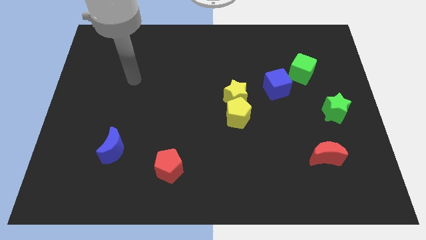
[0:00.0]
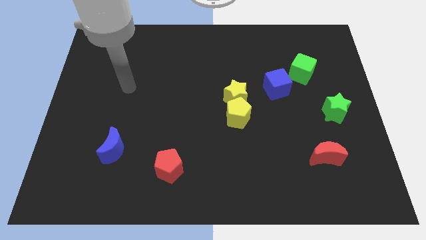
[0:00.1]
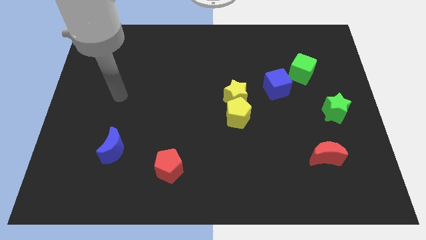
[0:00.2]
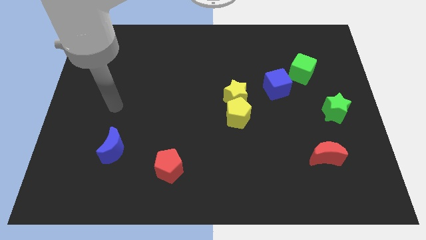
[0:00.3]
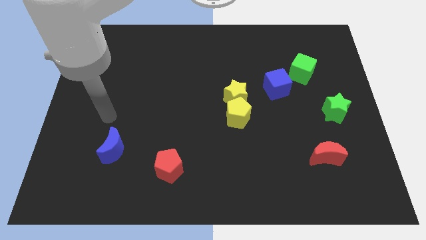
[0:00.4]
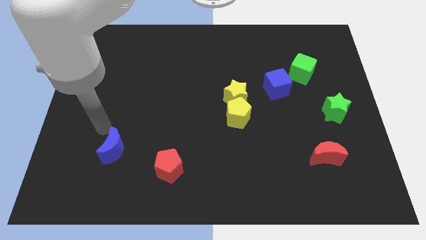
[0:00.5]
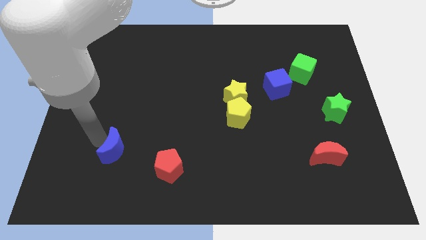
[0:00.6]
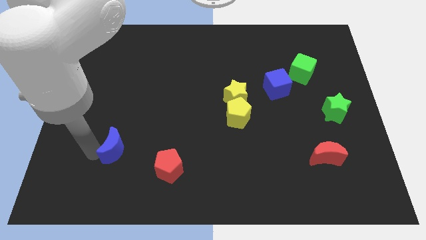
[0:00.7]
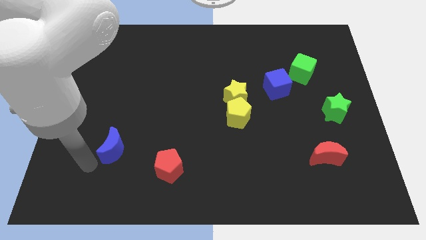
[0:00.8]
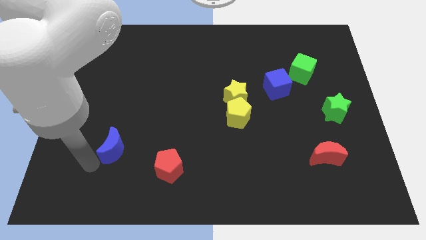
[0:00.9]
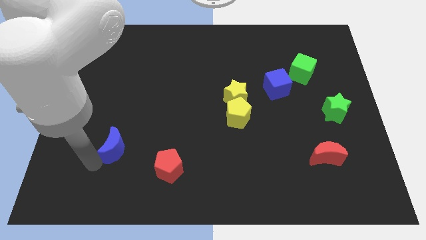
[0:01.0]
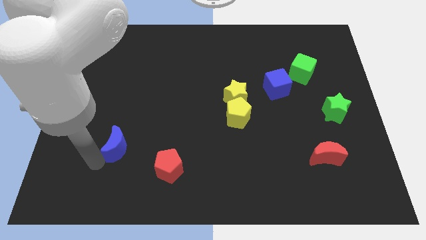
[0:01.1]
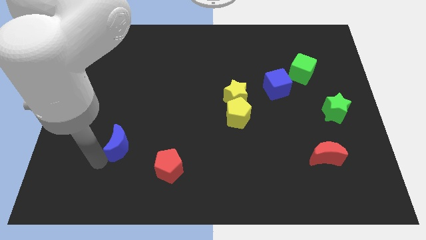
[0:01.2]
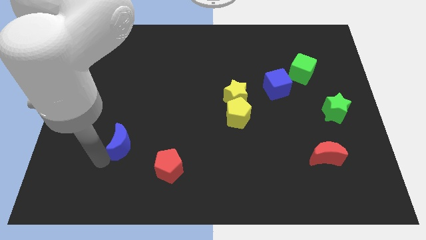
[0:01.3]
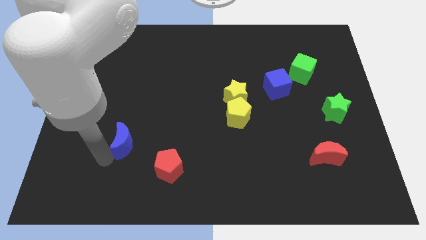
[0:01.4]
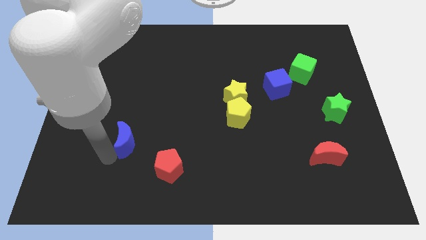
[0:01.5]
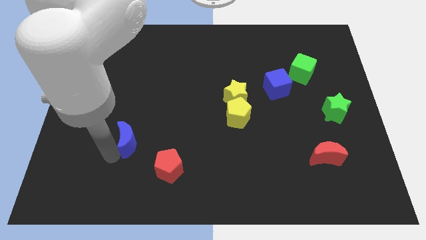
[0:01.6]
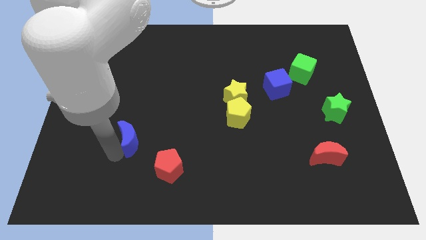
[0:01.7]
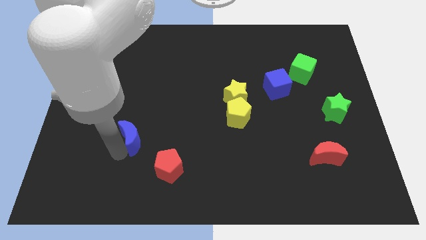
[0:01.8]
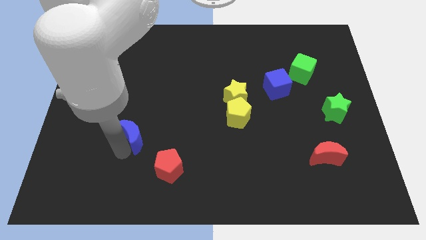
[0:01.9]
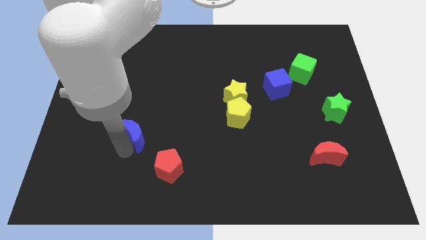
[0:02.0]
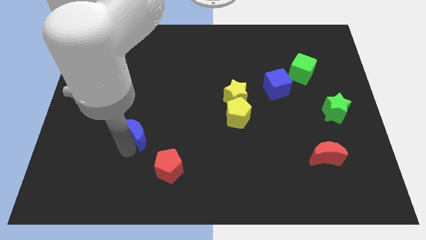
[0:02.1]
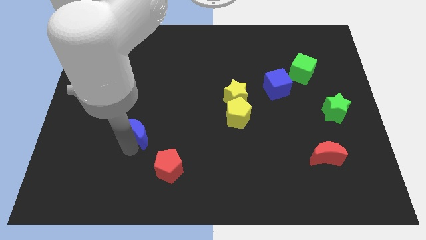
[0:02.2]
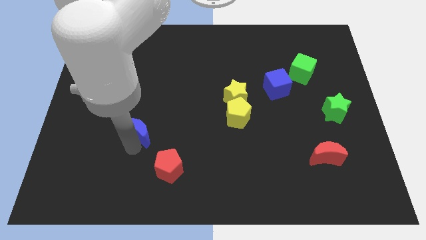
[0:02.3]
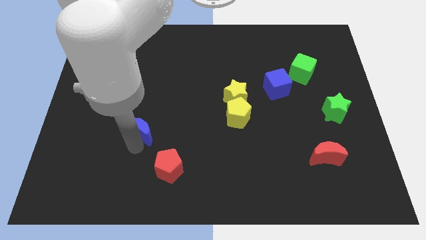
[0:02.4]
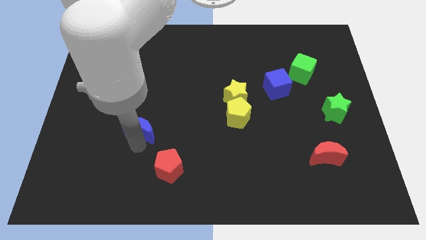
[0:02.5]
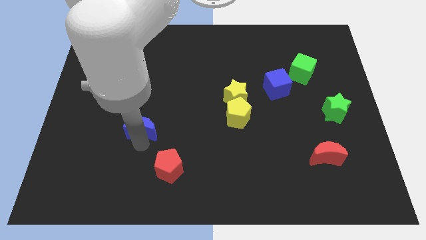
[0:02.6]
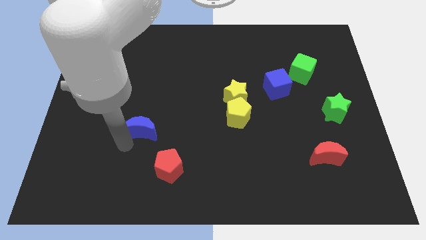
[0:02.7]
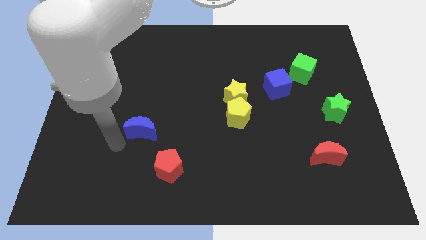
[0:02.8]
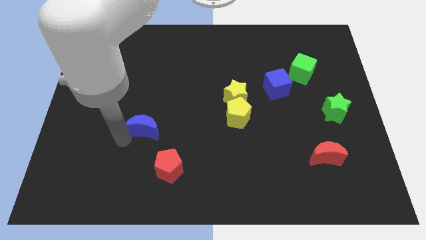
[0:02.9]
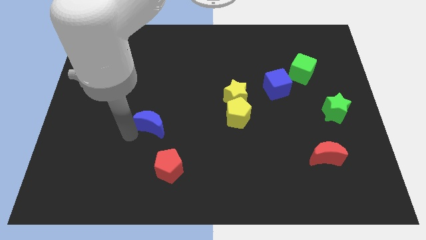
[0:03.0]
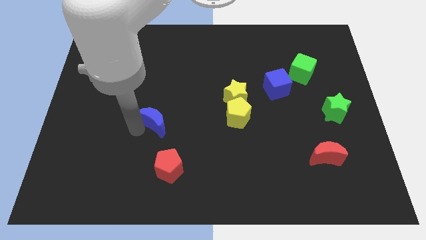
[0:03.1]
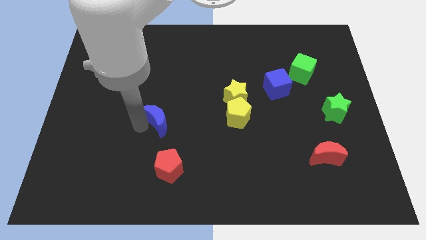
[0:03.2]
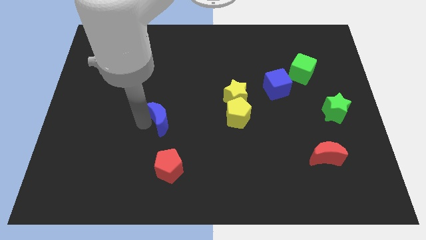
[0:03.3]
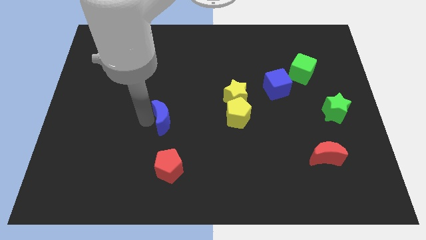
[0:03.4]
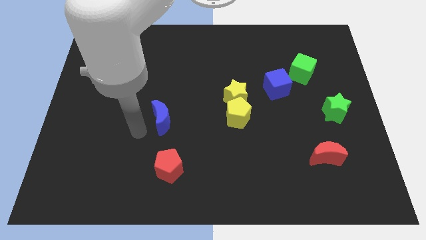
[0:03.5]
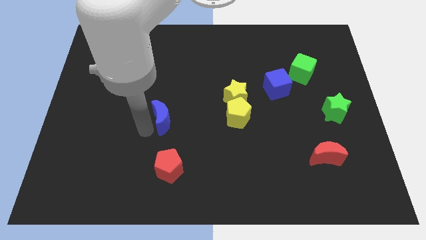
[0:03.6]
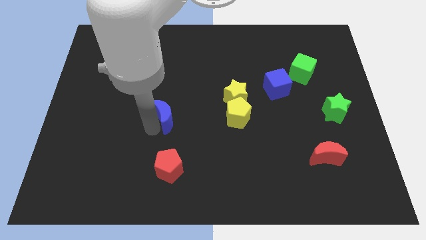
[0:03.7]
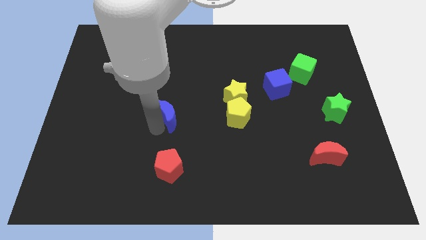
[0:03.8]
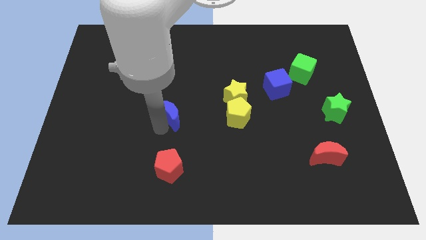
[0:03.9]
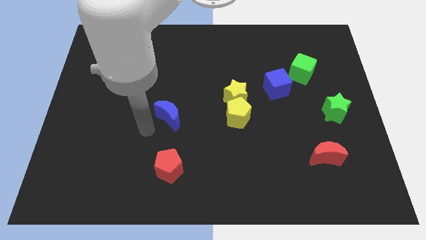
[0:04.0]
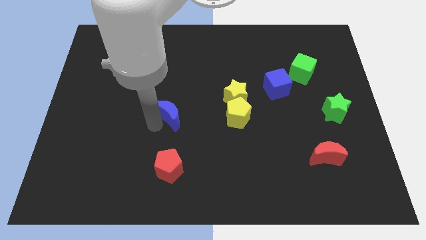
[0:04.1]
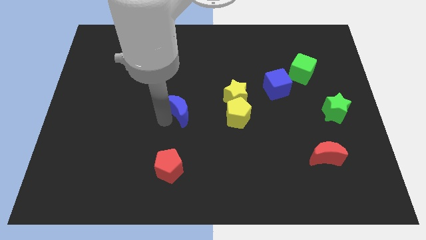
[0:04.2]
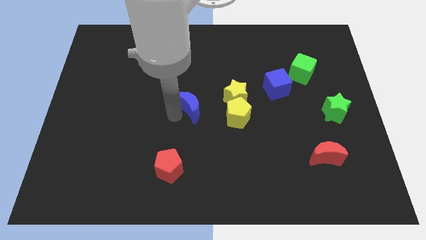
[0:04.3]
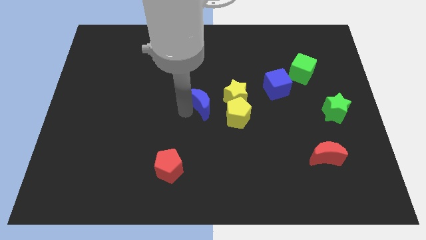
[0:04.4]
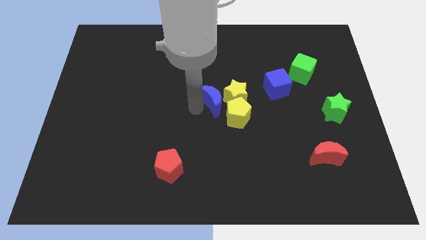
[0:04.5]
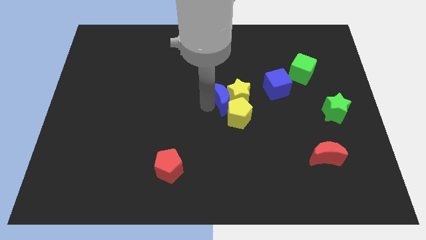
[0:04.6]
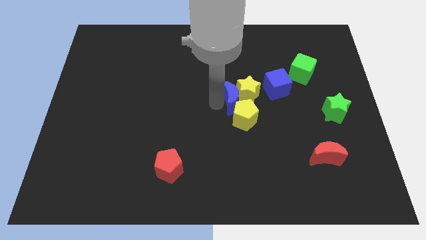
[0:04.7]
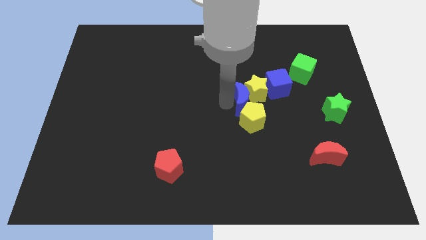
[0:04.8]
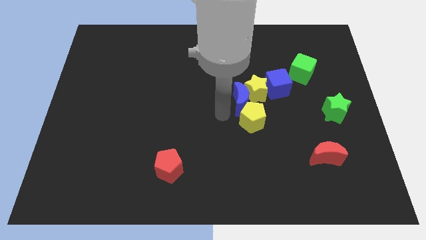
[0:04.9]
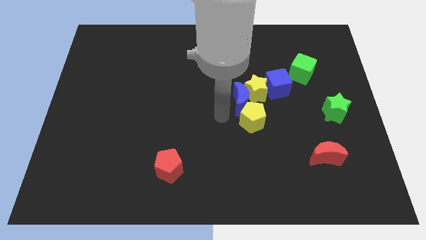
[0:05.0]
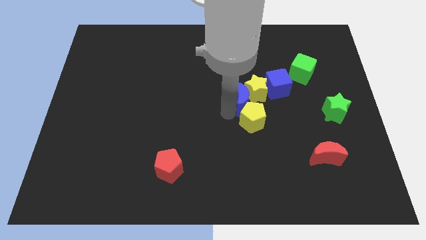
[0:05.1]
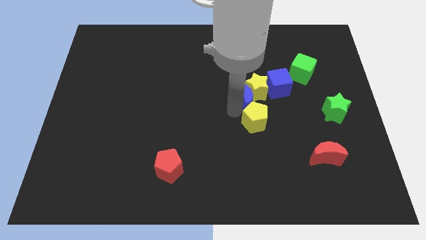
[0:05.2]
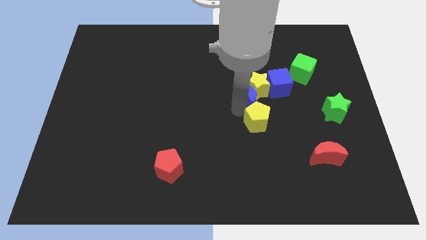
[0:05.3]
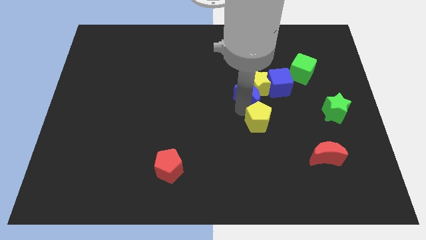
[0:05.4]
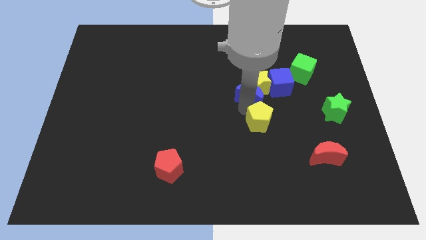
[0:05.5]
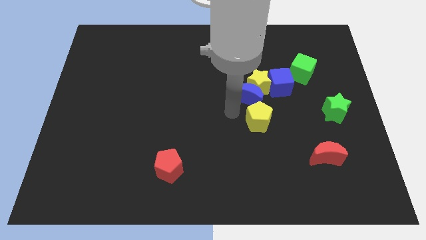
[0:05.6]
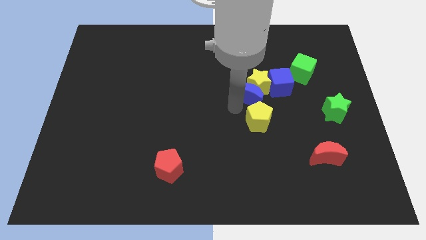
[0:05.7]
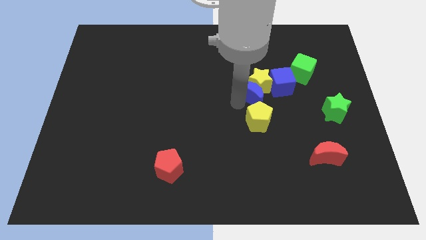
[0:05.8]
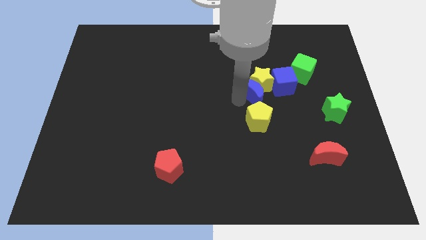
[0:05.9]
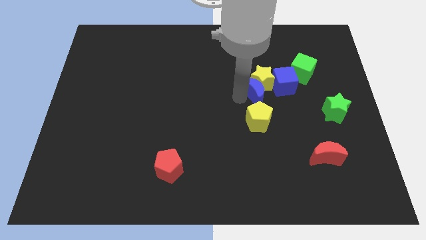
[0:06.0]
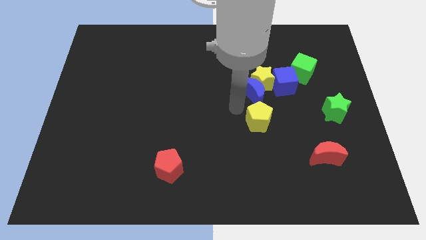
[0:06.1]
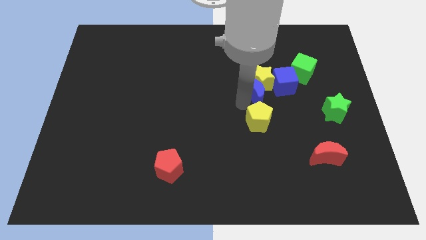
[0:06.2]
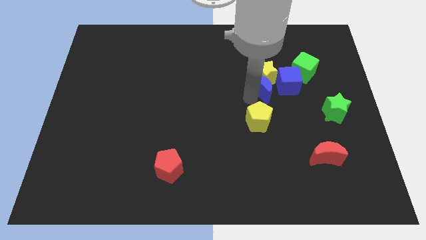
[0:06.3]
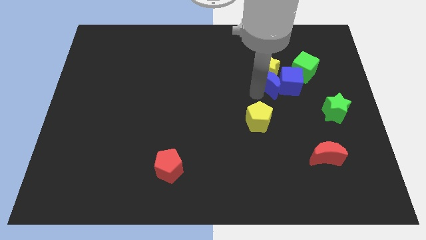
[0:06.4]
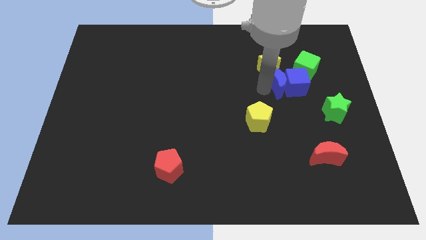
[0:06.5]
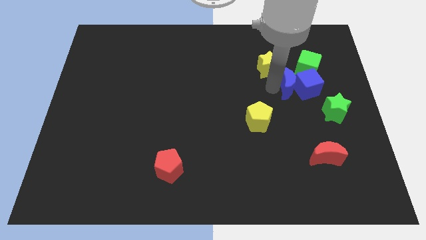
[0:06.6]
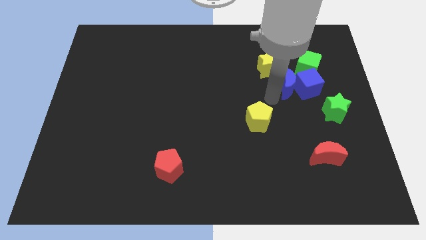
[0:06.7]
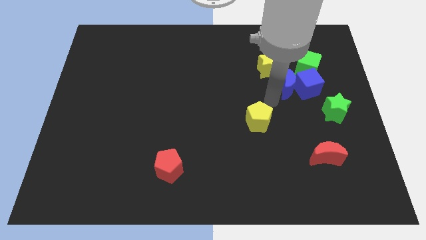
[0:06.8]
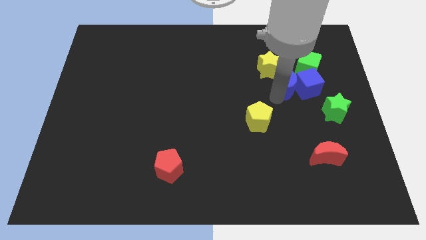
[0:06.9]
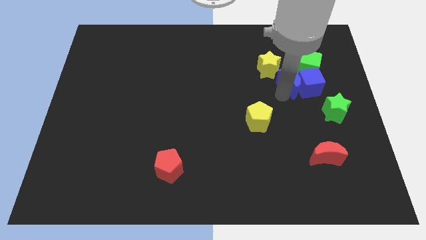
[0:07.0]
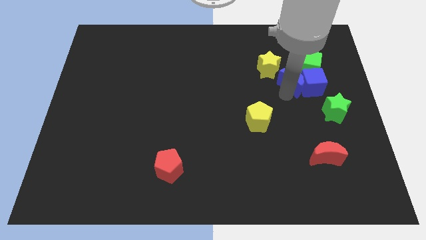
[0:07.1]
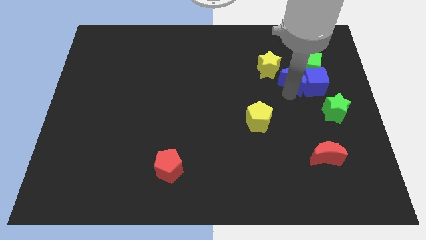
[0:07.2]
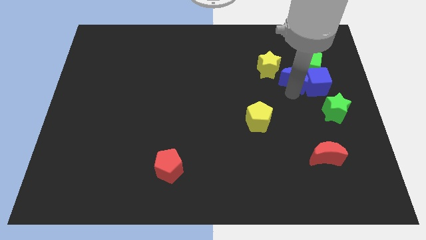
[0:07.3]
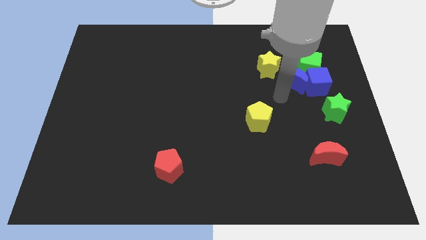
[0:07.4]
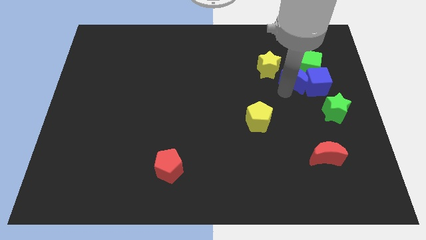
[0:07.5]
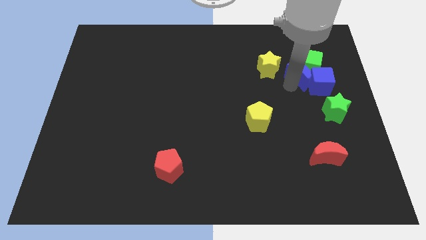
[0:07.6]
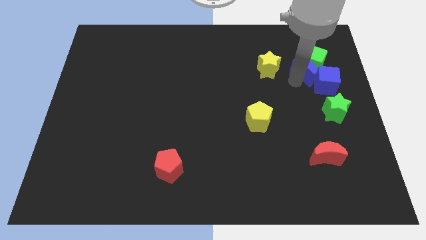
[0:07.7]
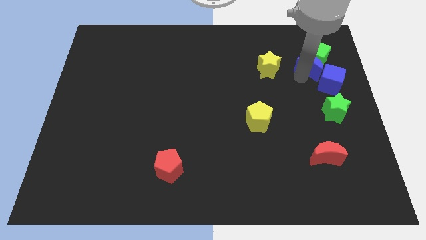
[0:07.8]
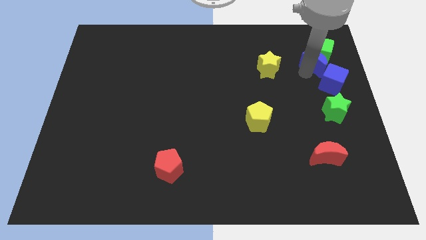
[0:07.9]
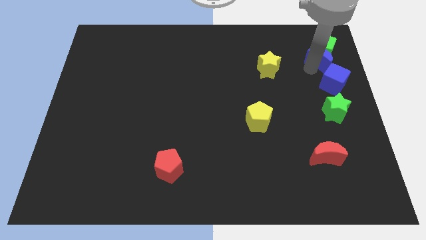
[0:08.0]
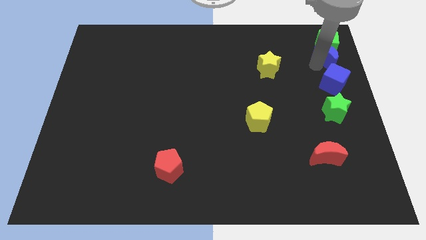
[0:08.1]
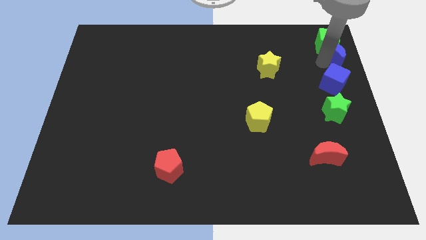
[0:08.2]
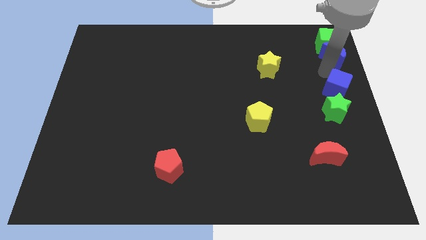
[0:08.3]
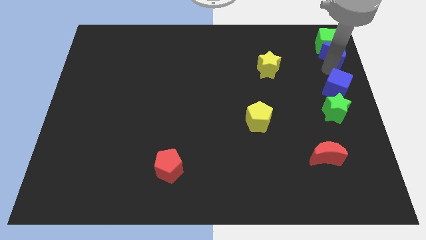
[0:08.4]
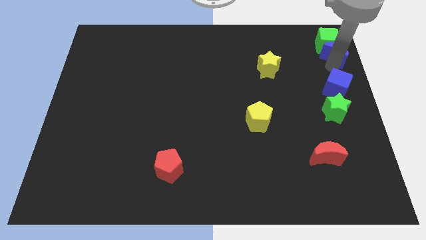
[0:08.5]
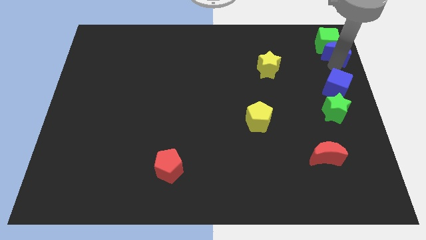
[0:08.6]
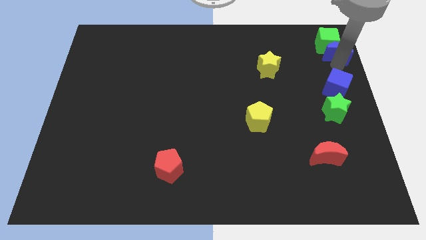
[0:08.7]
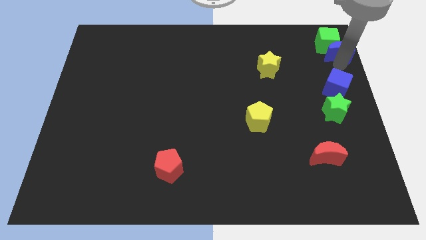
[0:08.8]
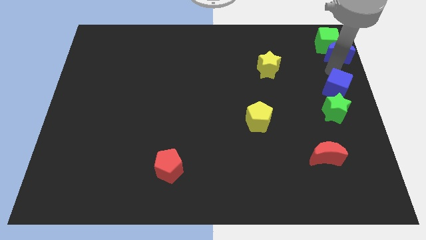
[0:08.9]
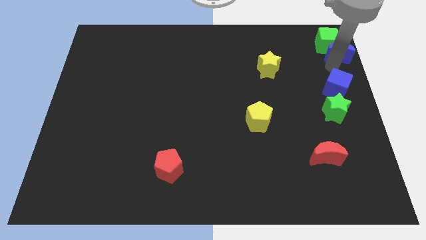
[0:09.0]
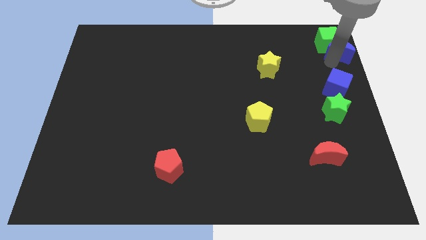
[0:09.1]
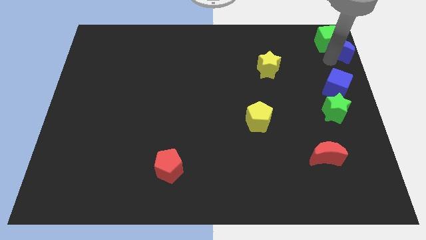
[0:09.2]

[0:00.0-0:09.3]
push the blue moon to the top right of the board
